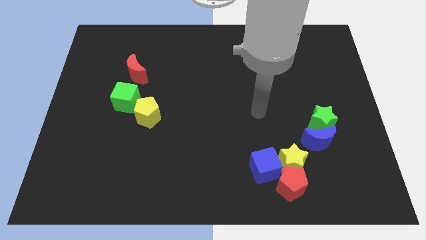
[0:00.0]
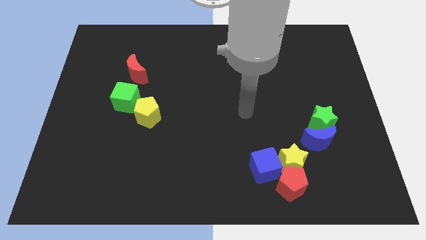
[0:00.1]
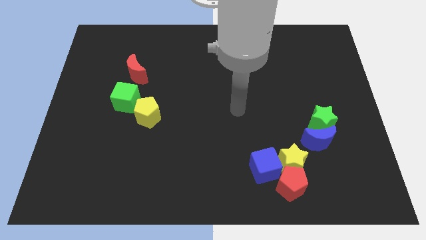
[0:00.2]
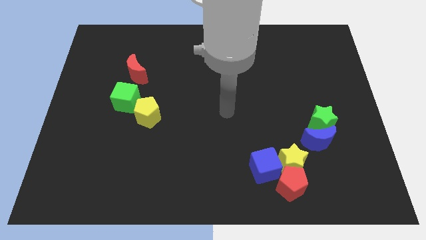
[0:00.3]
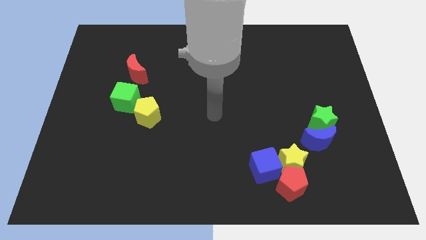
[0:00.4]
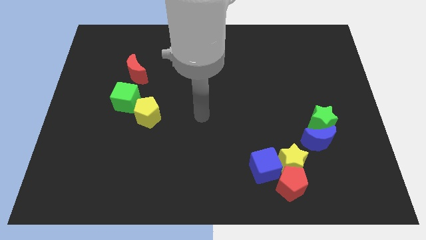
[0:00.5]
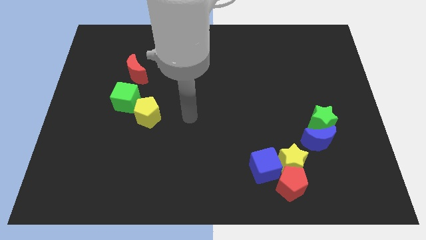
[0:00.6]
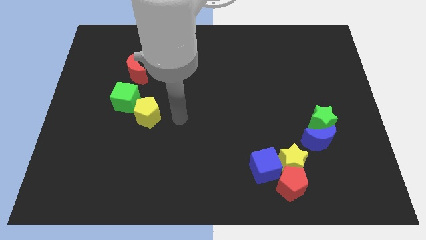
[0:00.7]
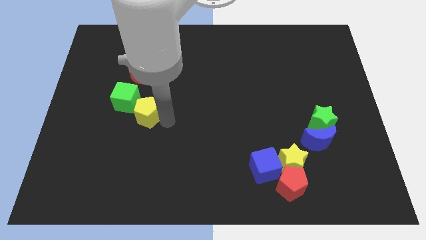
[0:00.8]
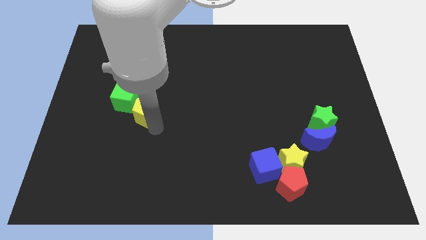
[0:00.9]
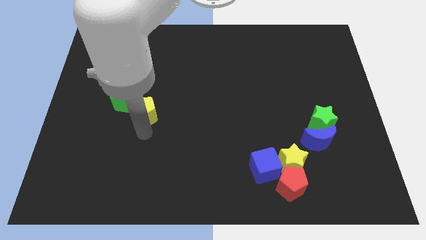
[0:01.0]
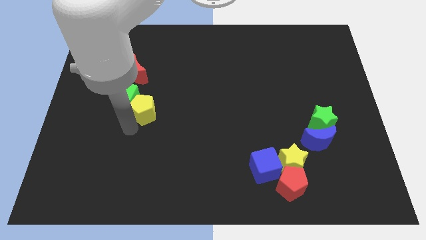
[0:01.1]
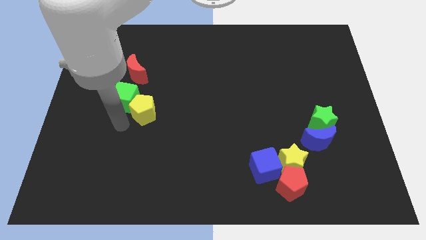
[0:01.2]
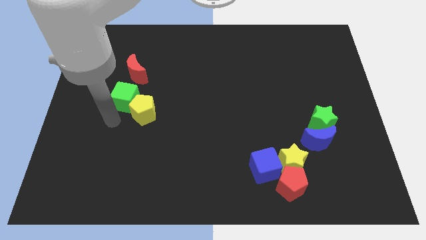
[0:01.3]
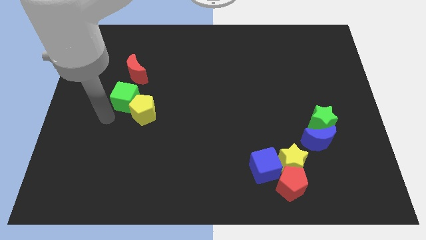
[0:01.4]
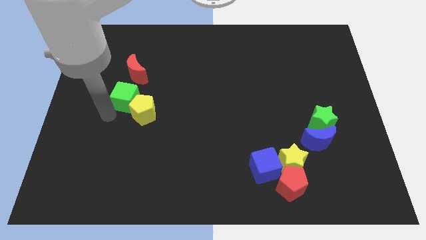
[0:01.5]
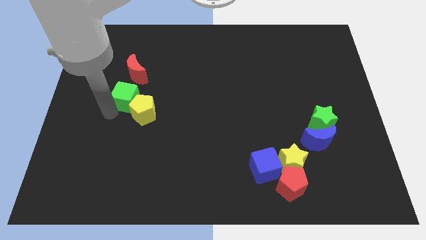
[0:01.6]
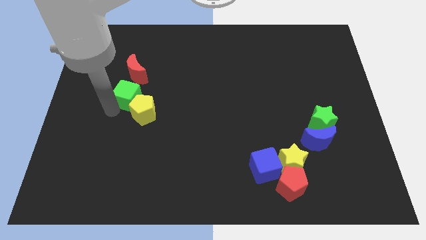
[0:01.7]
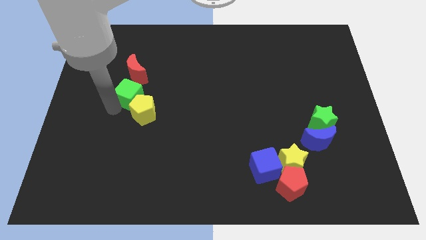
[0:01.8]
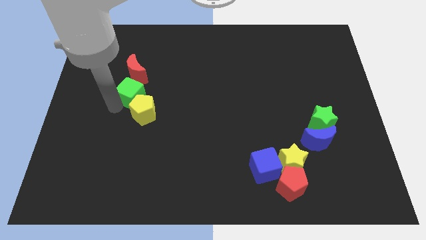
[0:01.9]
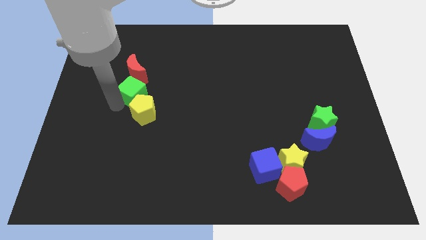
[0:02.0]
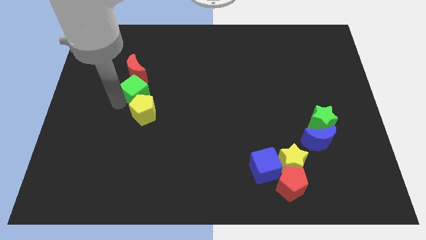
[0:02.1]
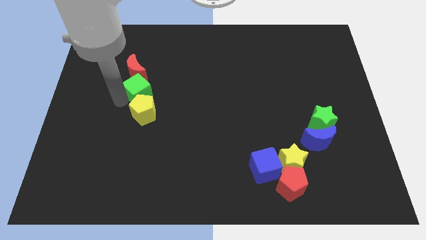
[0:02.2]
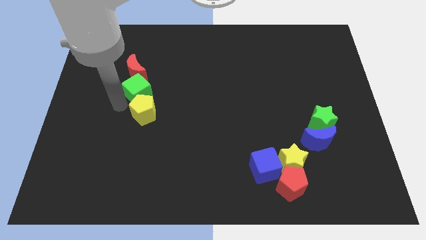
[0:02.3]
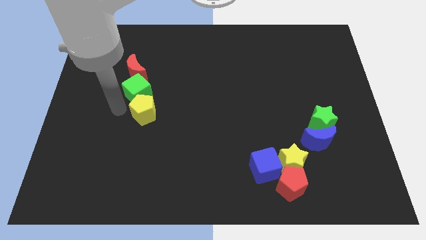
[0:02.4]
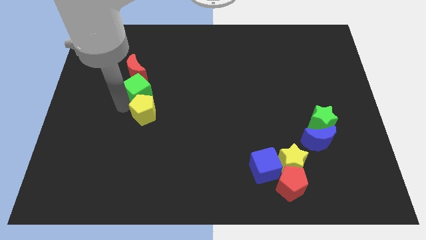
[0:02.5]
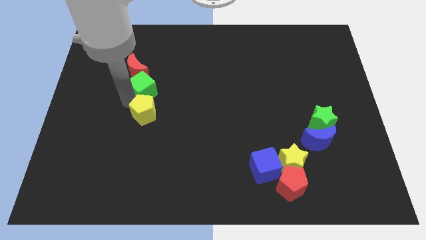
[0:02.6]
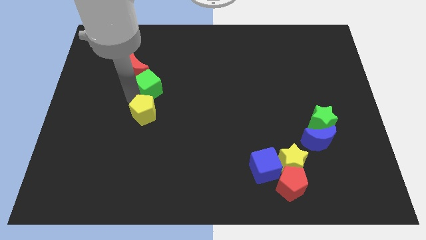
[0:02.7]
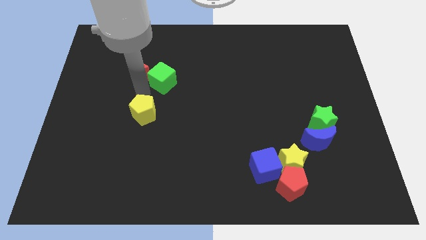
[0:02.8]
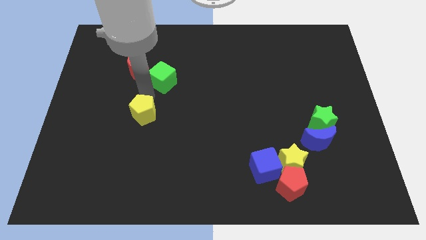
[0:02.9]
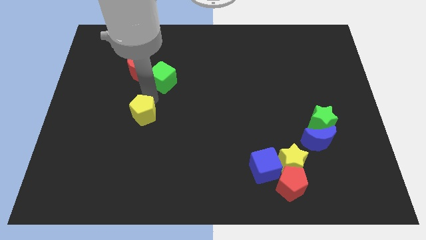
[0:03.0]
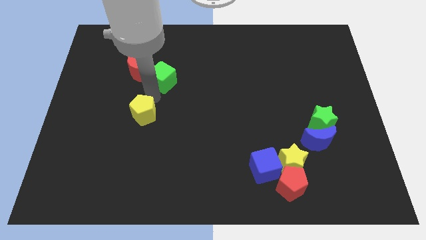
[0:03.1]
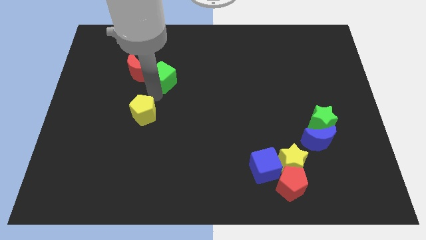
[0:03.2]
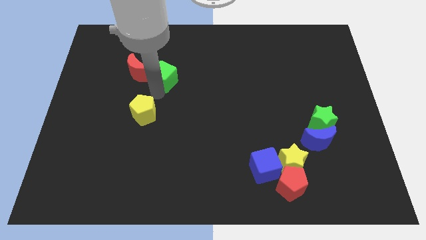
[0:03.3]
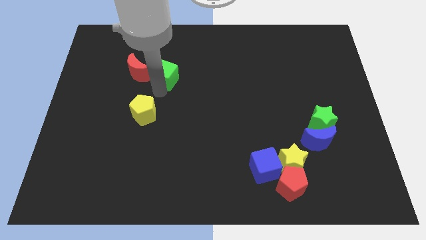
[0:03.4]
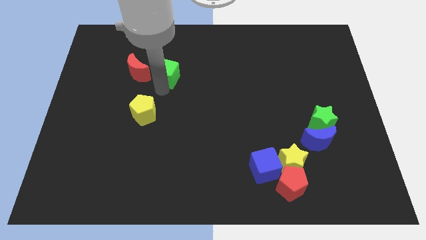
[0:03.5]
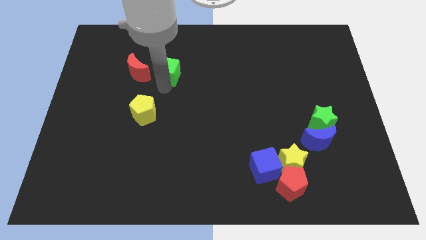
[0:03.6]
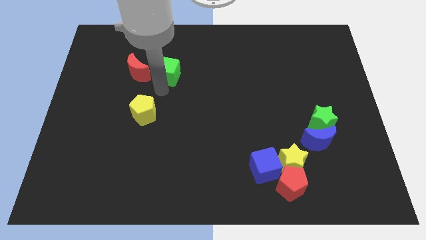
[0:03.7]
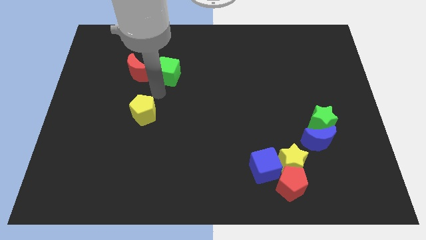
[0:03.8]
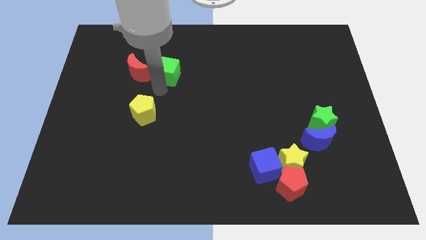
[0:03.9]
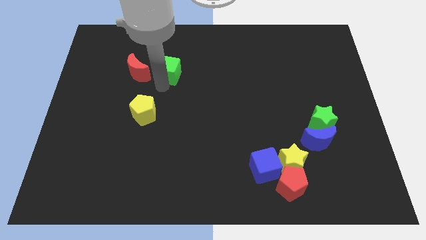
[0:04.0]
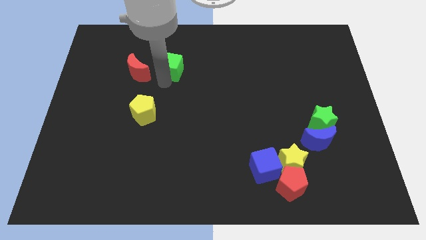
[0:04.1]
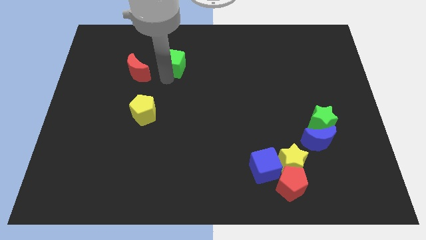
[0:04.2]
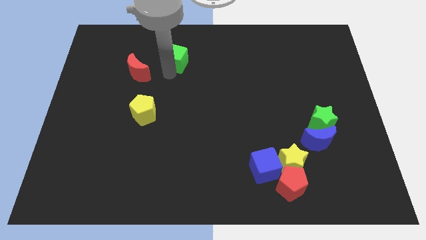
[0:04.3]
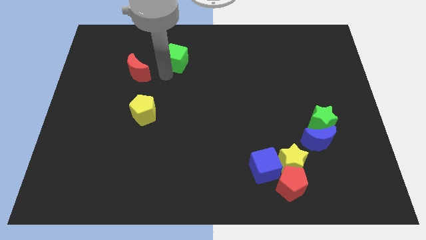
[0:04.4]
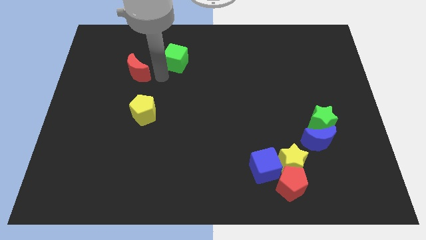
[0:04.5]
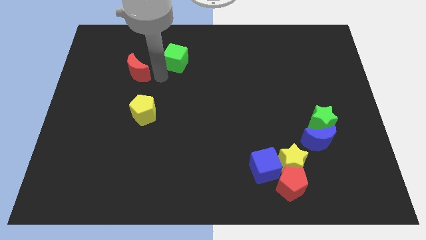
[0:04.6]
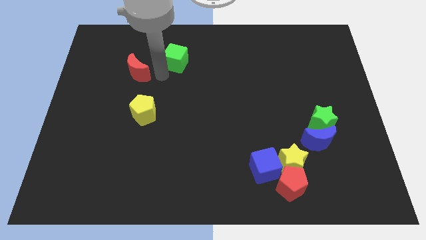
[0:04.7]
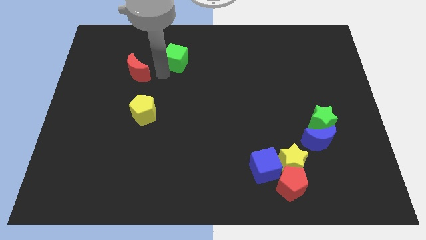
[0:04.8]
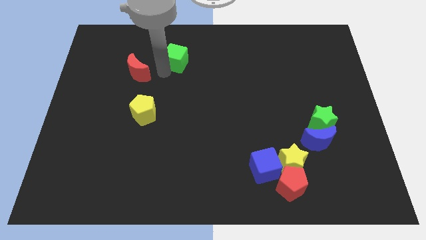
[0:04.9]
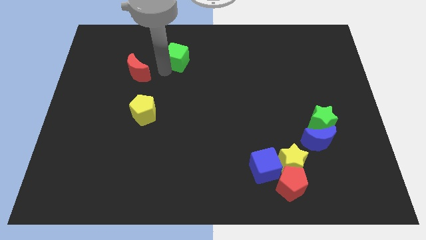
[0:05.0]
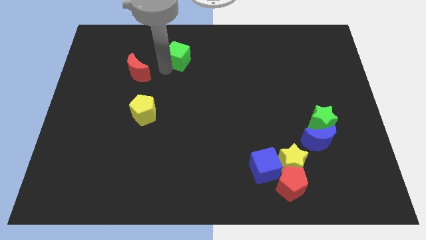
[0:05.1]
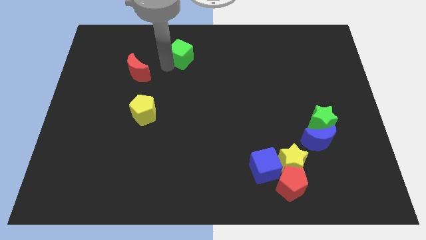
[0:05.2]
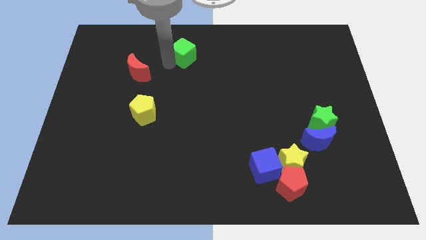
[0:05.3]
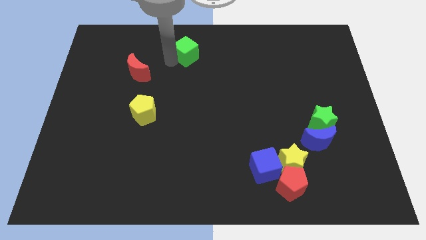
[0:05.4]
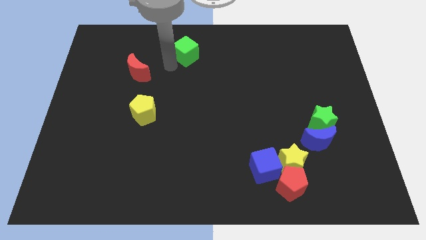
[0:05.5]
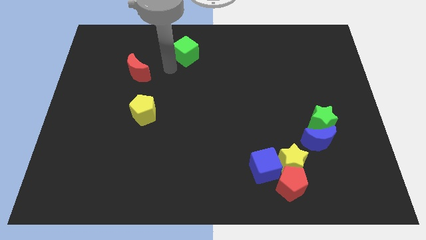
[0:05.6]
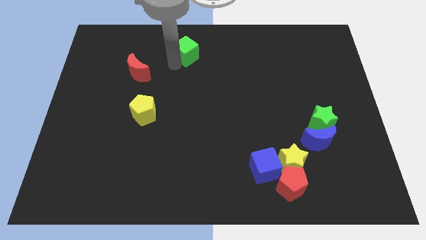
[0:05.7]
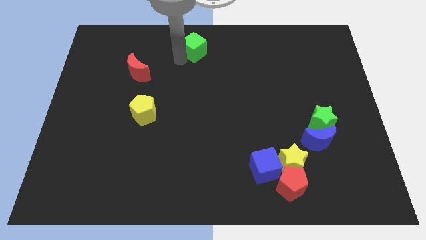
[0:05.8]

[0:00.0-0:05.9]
move the green cube to the top side
